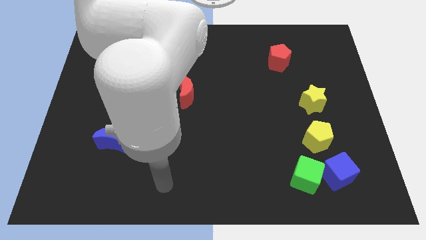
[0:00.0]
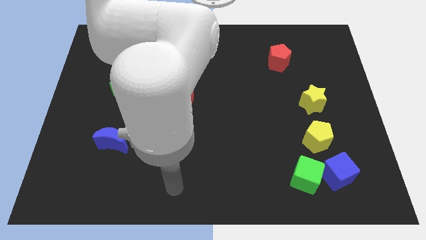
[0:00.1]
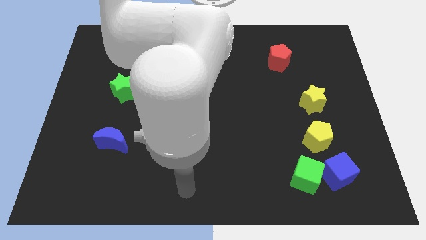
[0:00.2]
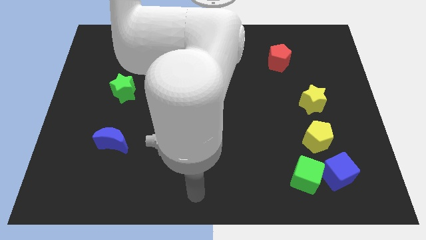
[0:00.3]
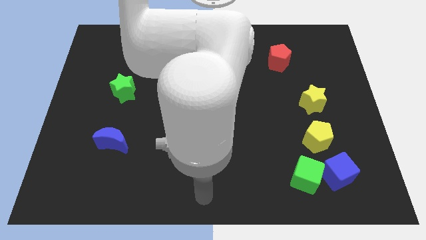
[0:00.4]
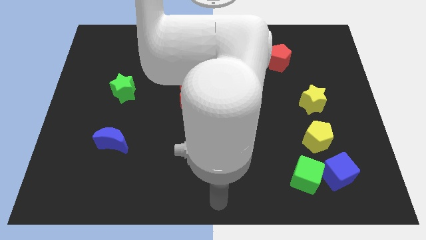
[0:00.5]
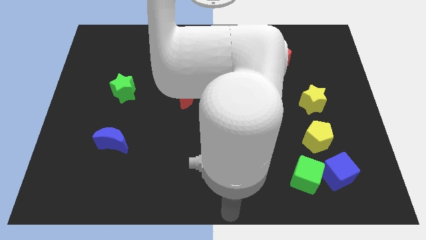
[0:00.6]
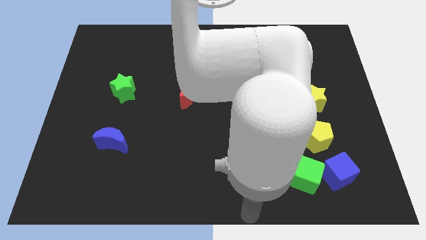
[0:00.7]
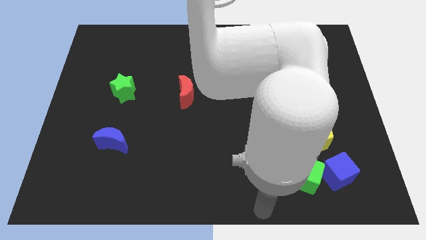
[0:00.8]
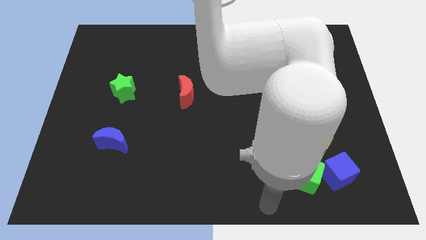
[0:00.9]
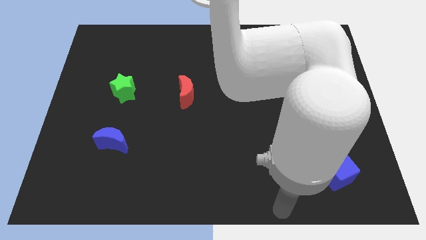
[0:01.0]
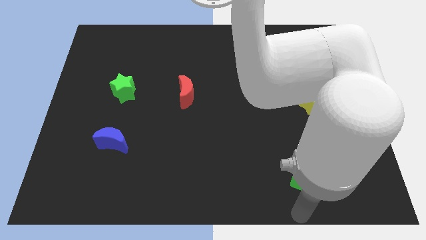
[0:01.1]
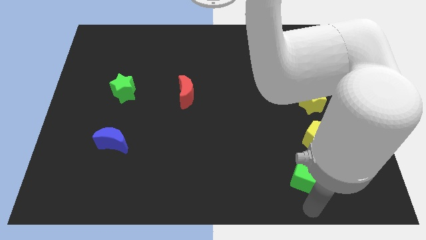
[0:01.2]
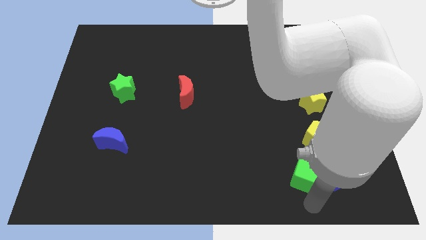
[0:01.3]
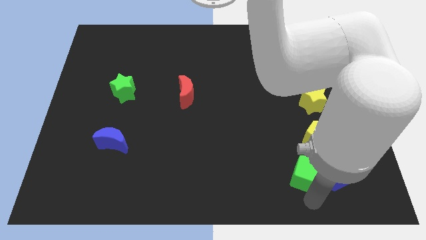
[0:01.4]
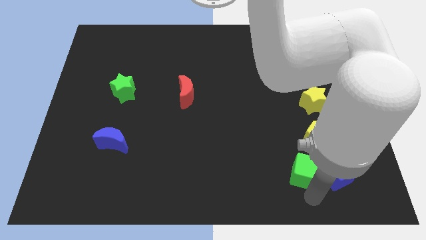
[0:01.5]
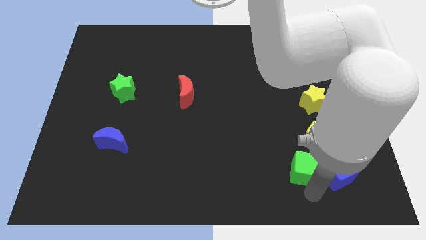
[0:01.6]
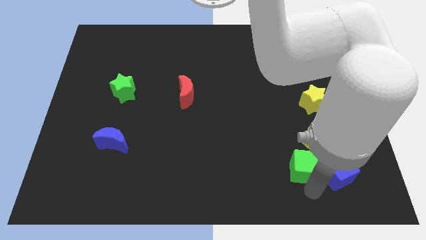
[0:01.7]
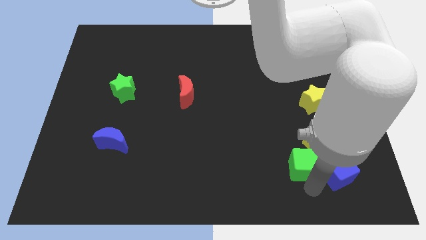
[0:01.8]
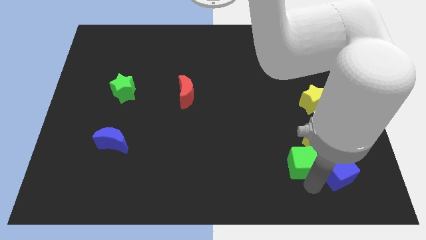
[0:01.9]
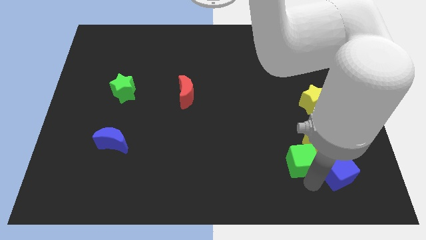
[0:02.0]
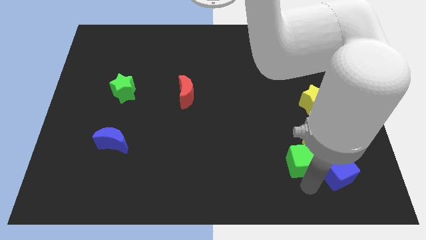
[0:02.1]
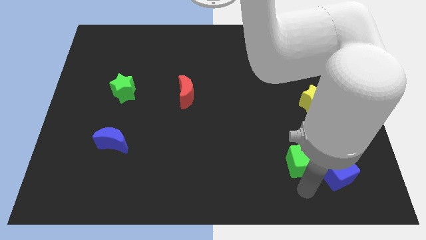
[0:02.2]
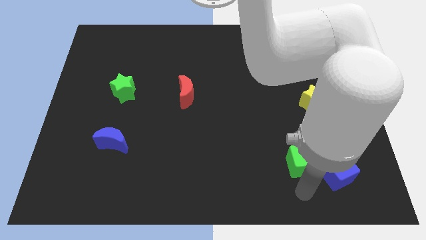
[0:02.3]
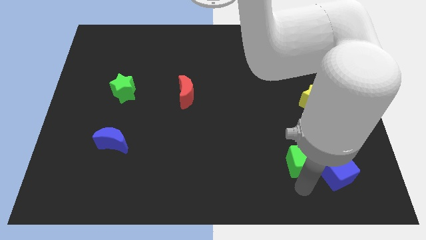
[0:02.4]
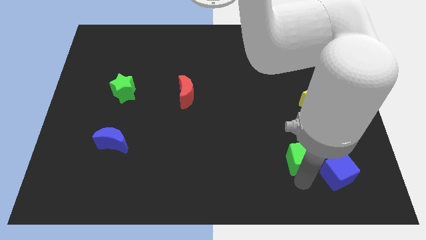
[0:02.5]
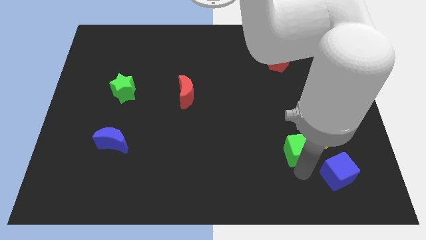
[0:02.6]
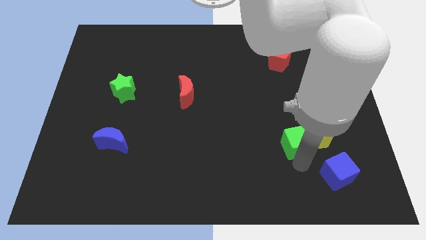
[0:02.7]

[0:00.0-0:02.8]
slide the green cube up somewhat

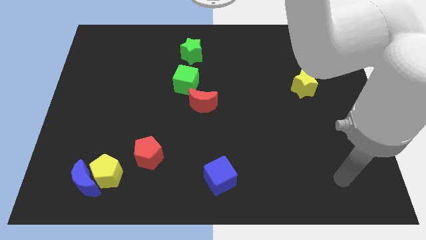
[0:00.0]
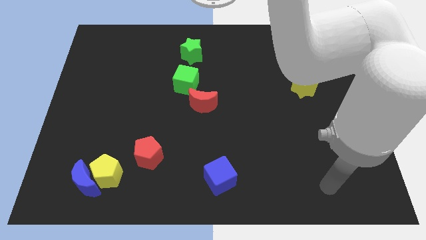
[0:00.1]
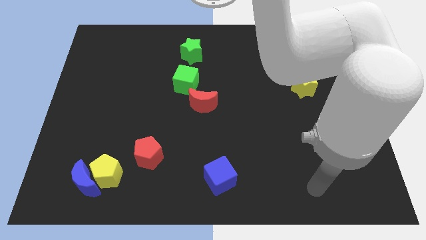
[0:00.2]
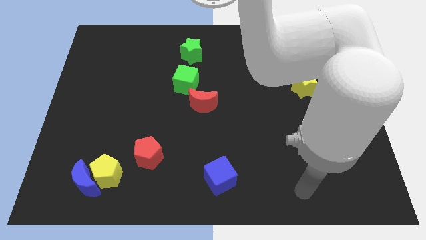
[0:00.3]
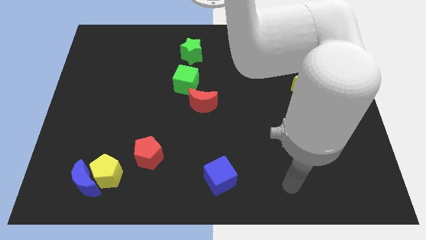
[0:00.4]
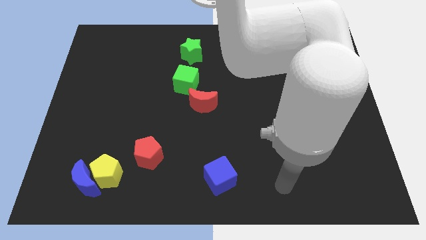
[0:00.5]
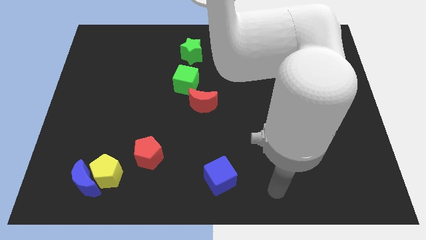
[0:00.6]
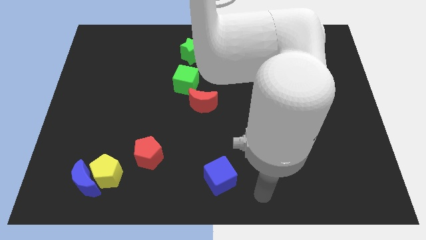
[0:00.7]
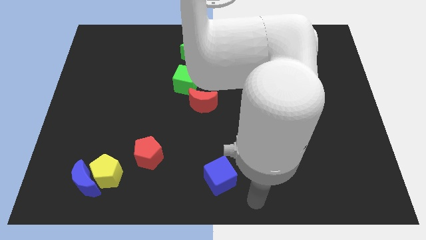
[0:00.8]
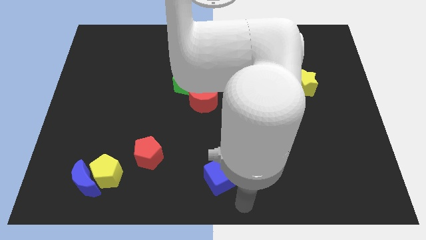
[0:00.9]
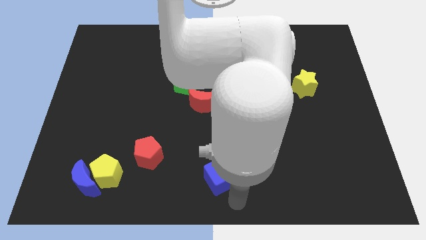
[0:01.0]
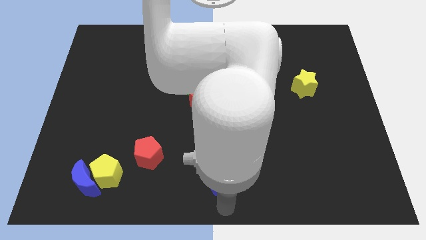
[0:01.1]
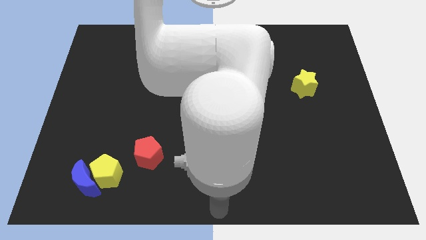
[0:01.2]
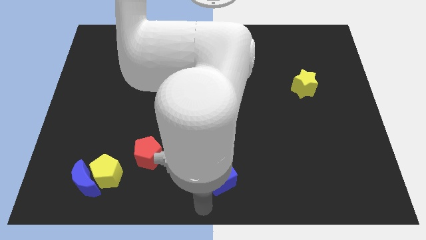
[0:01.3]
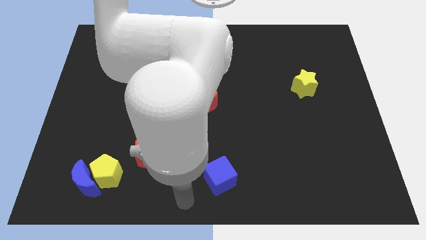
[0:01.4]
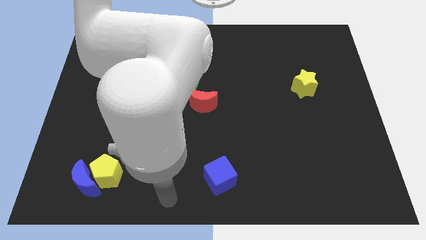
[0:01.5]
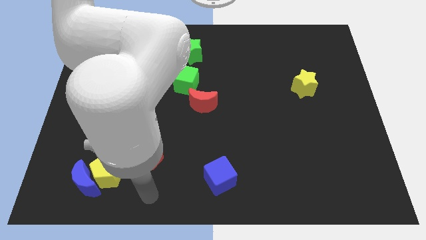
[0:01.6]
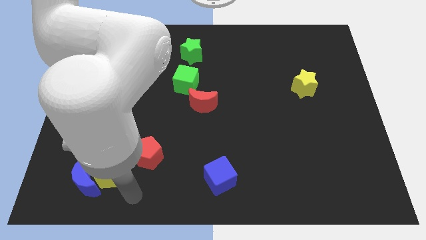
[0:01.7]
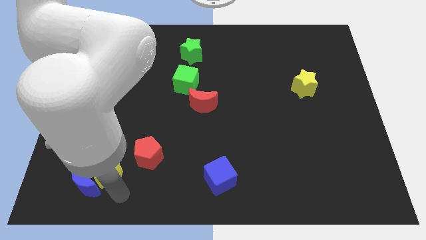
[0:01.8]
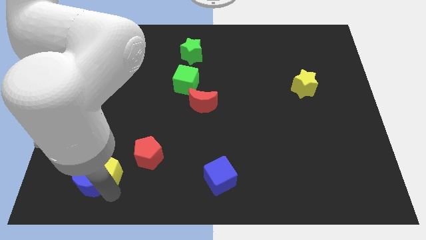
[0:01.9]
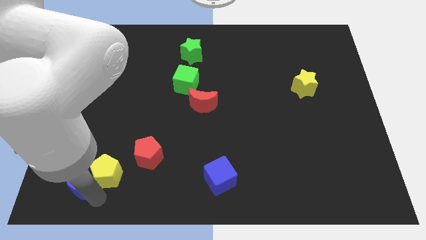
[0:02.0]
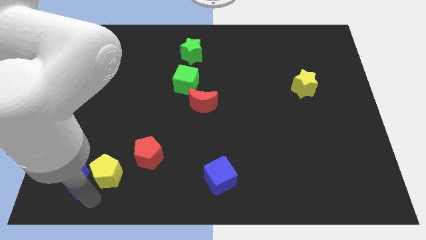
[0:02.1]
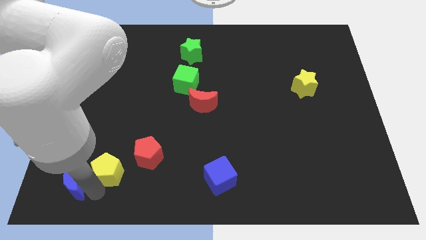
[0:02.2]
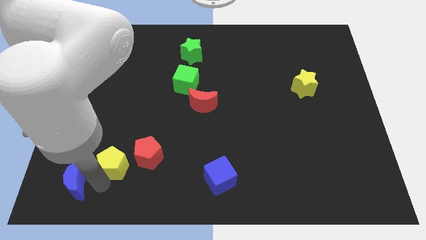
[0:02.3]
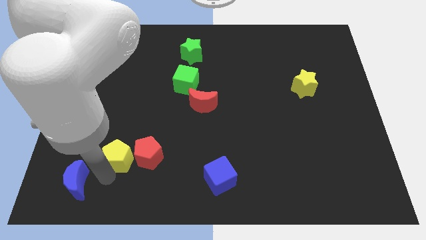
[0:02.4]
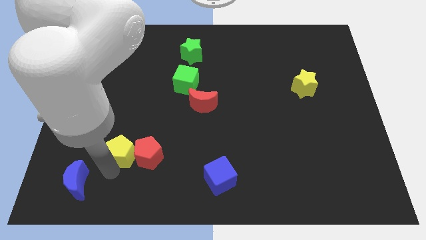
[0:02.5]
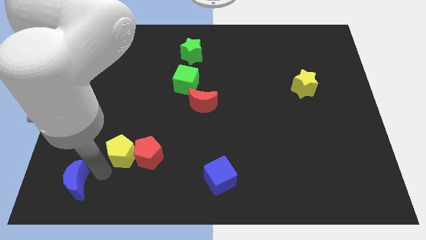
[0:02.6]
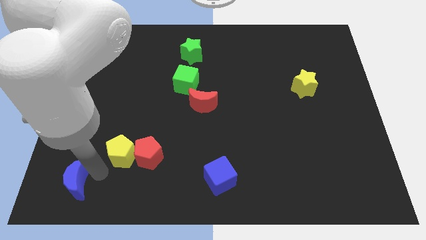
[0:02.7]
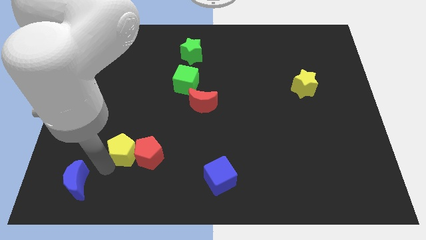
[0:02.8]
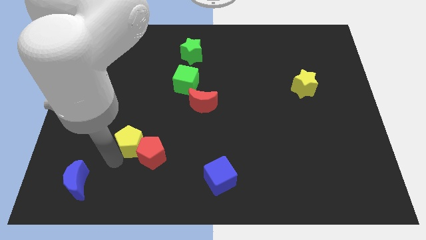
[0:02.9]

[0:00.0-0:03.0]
slide the yellow pentagon slightly up and right

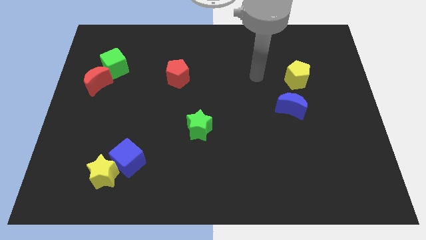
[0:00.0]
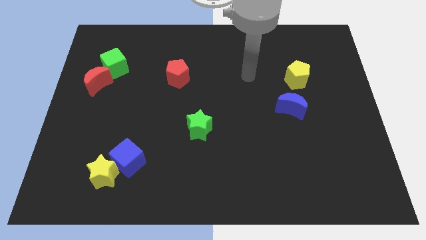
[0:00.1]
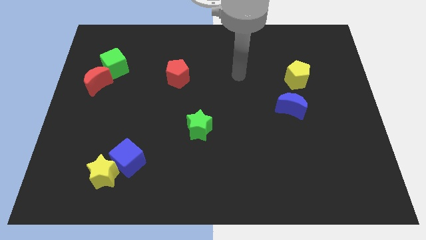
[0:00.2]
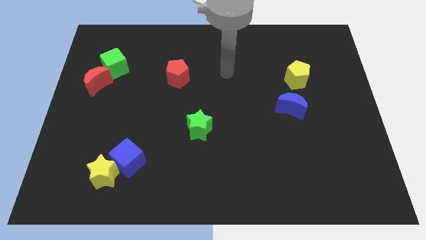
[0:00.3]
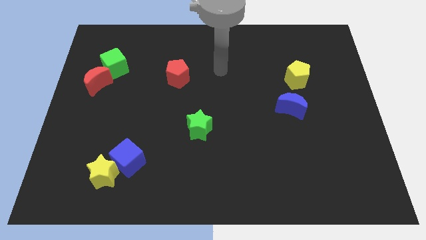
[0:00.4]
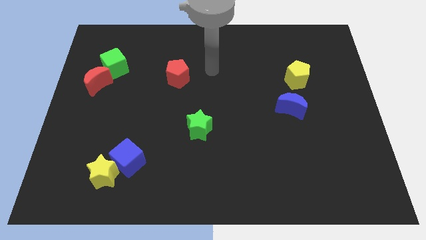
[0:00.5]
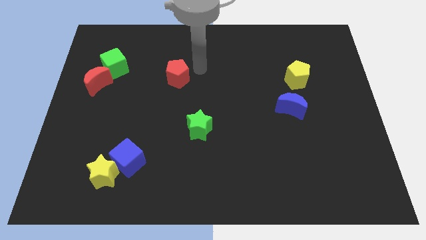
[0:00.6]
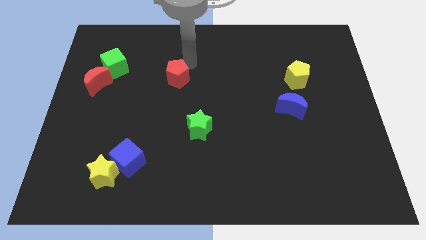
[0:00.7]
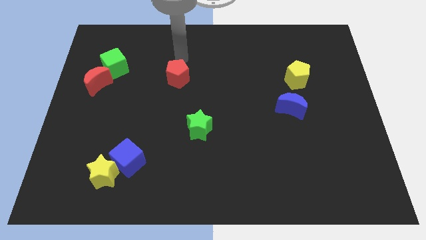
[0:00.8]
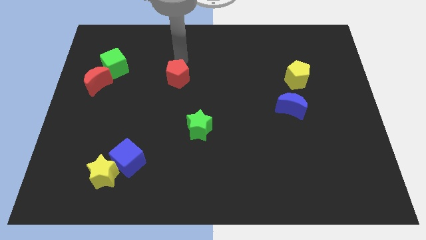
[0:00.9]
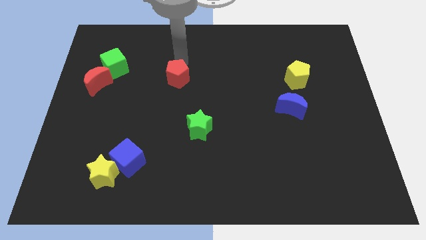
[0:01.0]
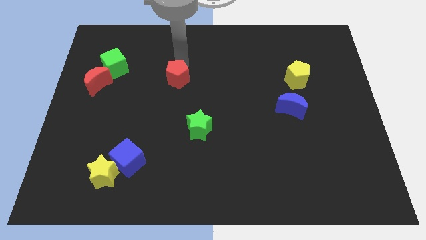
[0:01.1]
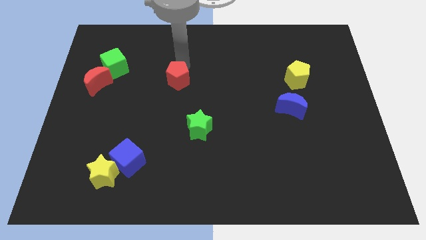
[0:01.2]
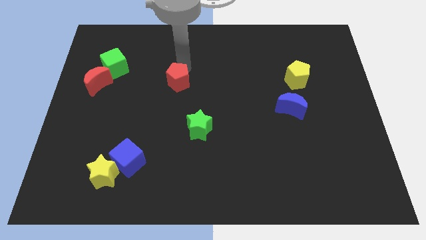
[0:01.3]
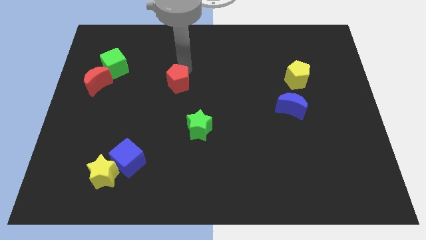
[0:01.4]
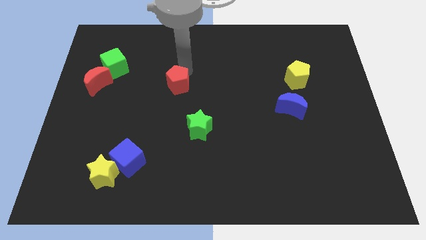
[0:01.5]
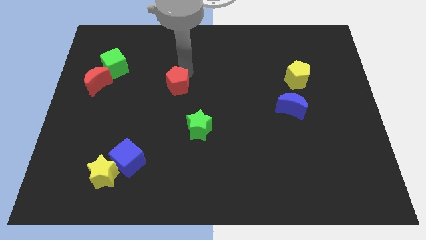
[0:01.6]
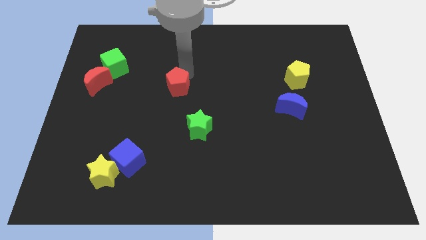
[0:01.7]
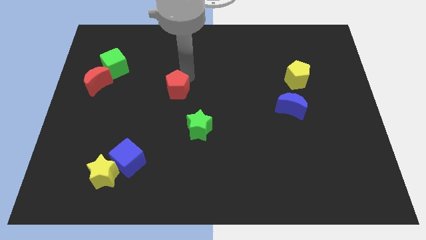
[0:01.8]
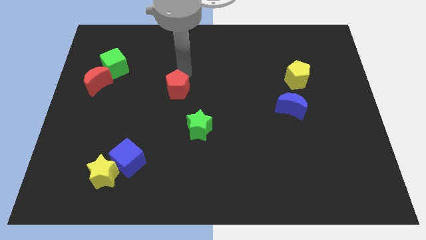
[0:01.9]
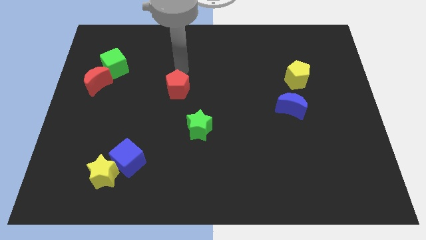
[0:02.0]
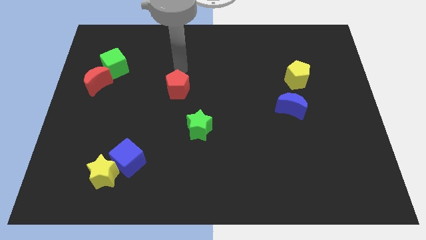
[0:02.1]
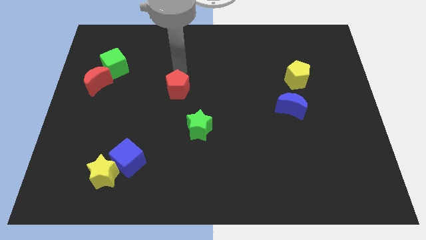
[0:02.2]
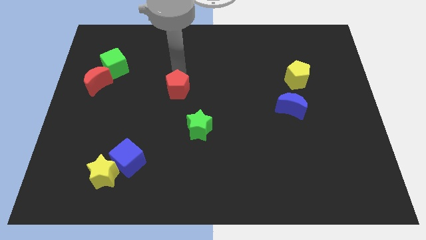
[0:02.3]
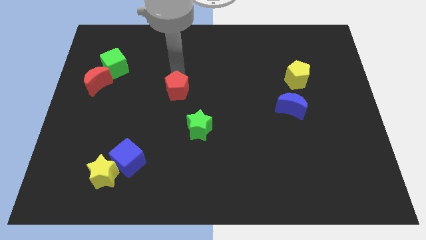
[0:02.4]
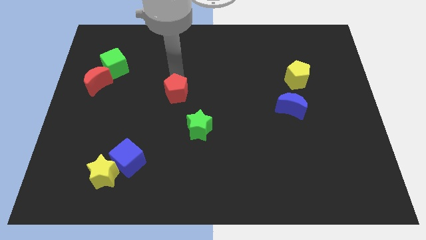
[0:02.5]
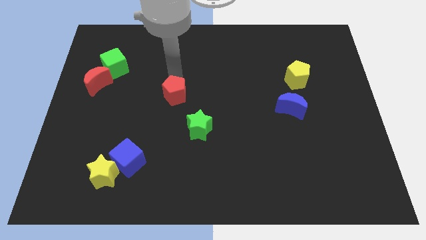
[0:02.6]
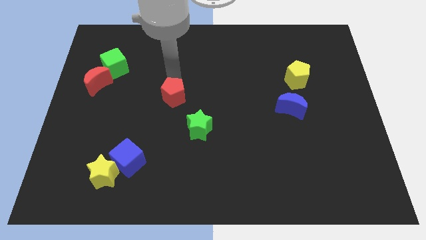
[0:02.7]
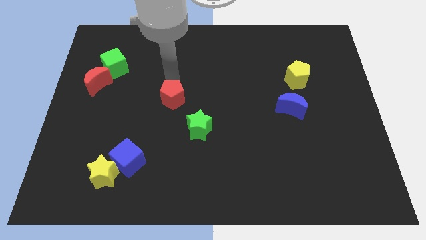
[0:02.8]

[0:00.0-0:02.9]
push the red pentagon slightly down
